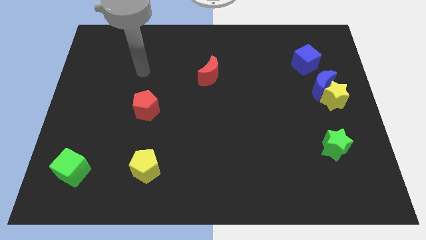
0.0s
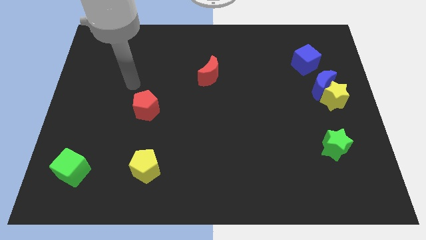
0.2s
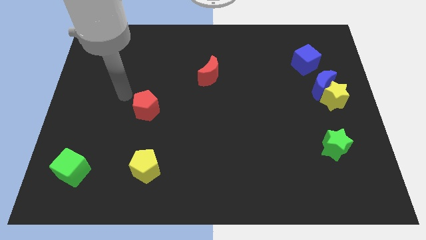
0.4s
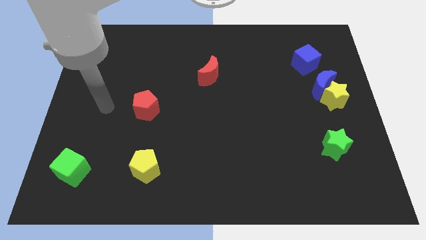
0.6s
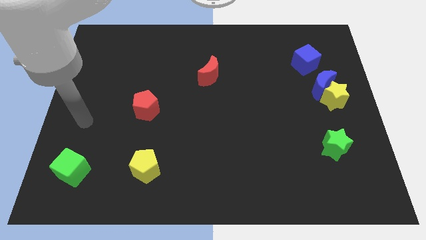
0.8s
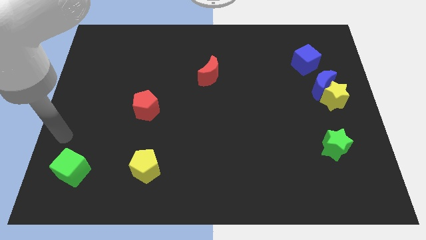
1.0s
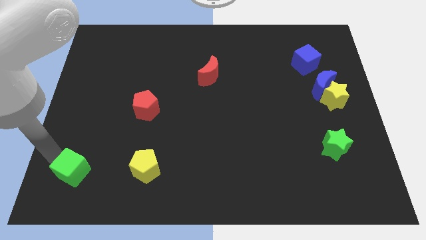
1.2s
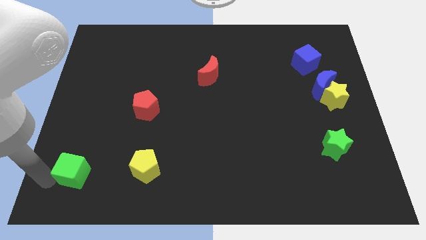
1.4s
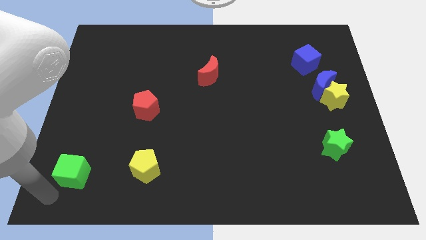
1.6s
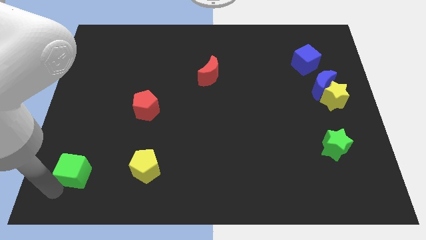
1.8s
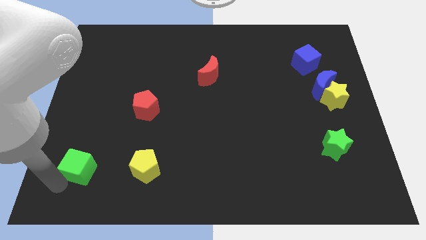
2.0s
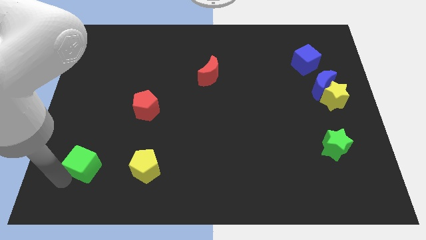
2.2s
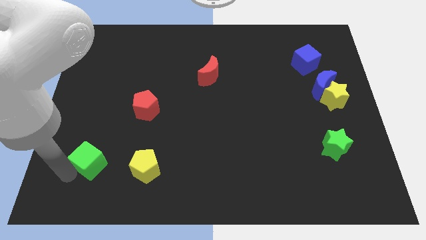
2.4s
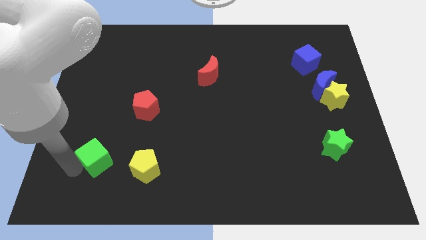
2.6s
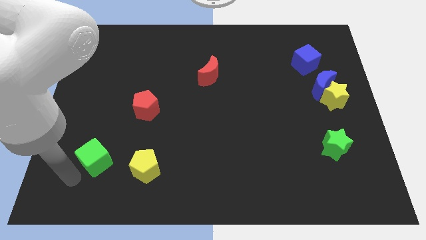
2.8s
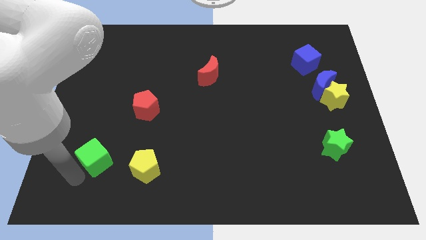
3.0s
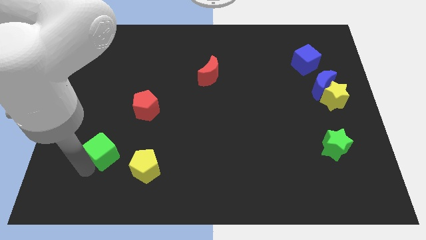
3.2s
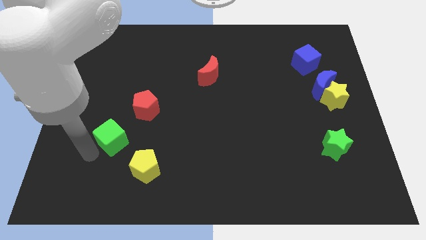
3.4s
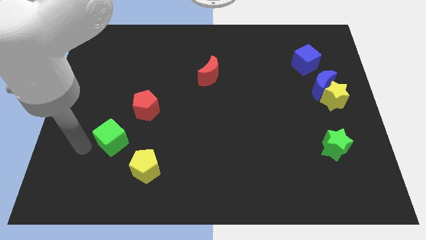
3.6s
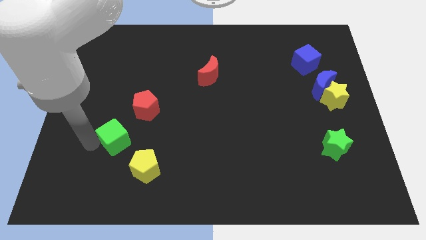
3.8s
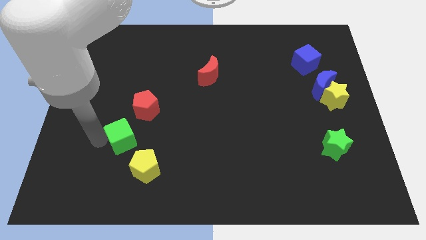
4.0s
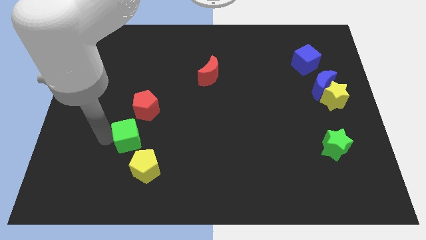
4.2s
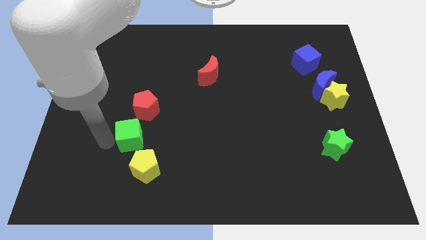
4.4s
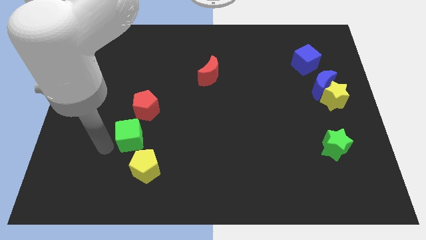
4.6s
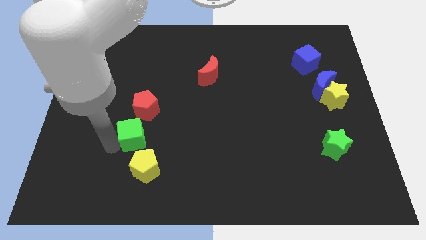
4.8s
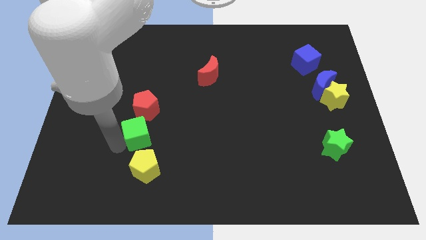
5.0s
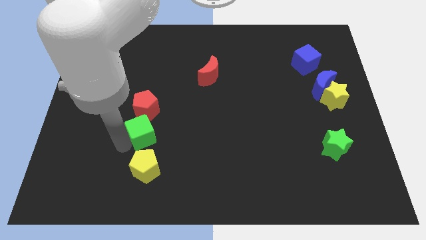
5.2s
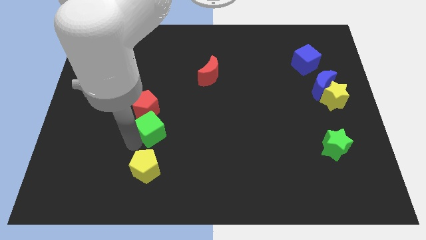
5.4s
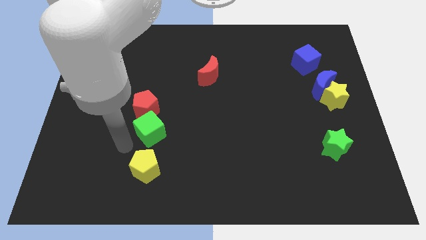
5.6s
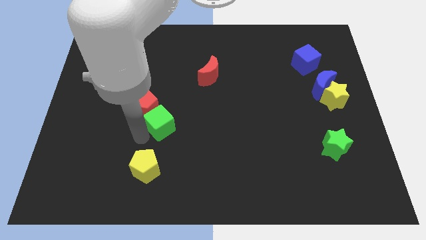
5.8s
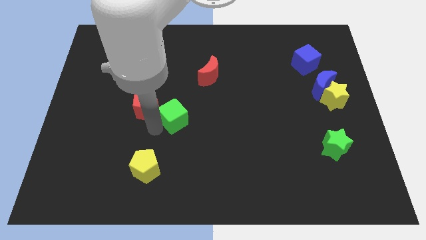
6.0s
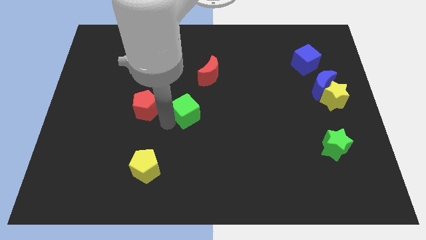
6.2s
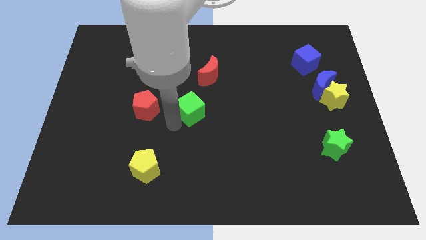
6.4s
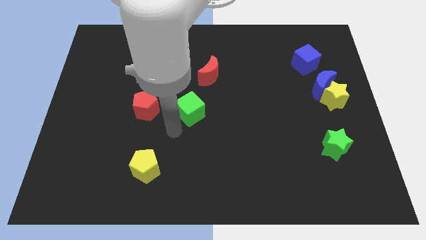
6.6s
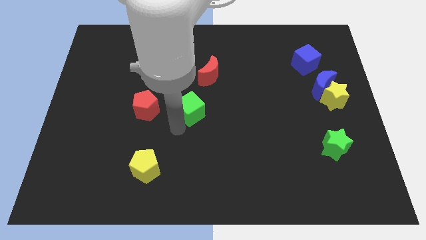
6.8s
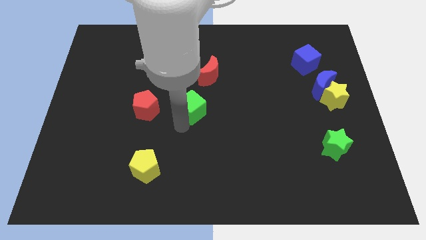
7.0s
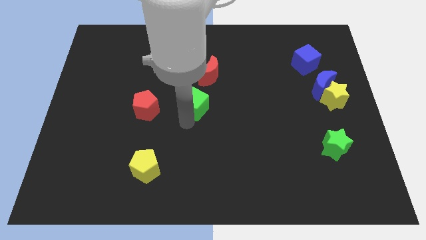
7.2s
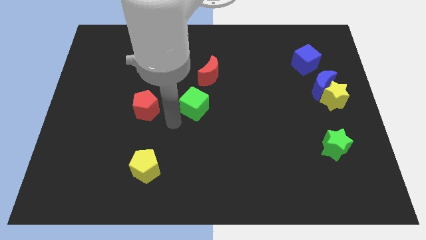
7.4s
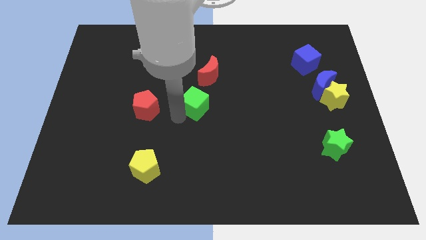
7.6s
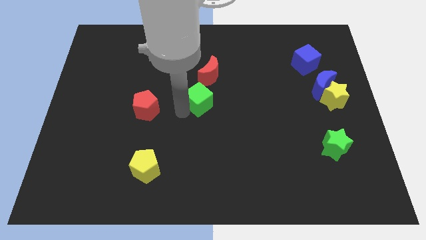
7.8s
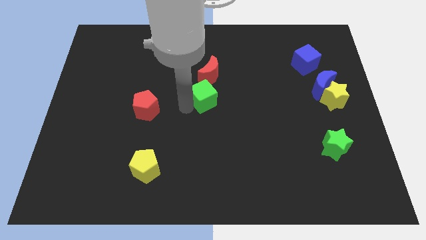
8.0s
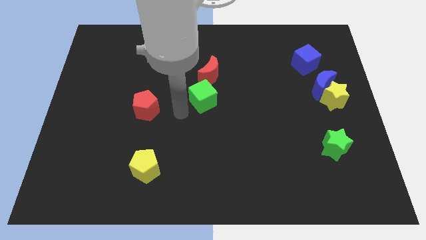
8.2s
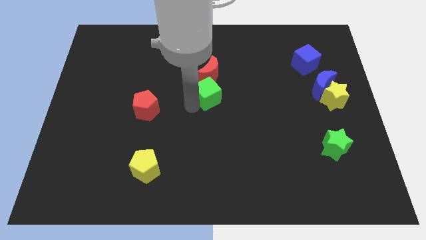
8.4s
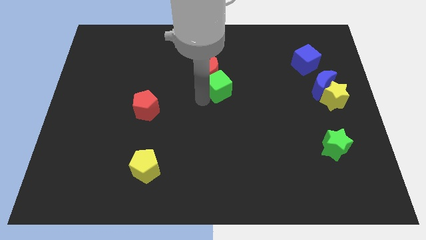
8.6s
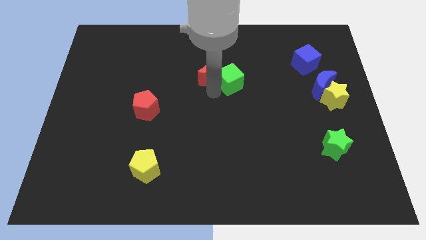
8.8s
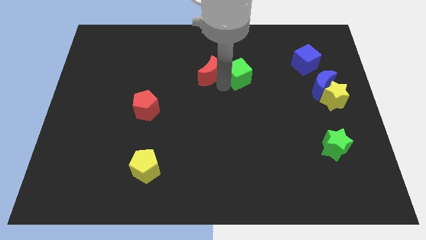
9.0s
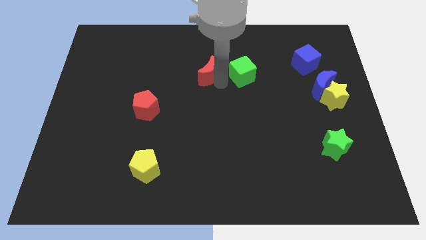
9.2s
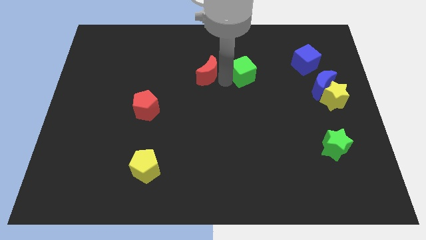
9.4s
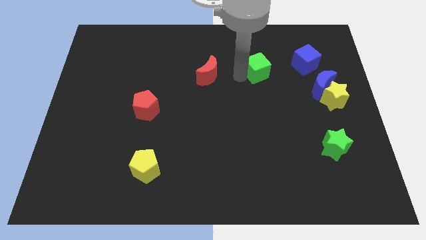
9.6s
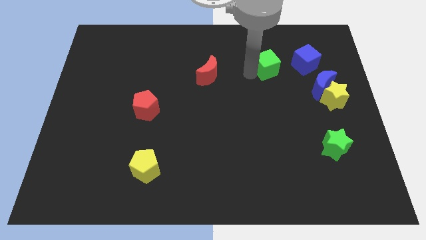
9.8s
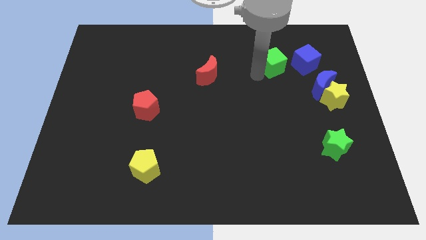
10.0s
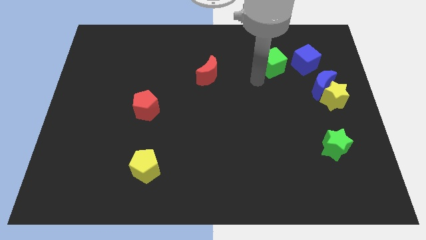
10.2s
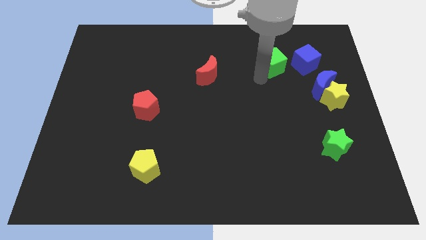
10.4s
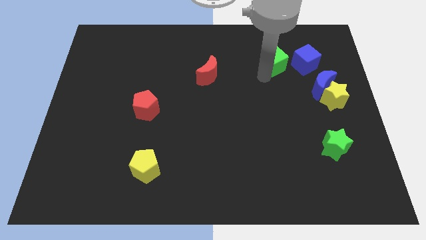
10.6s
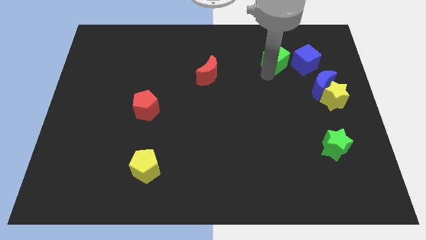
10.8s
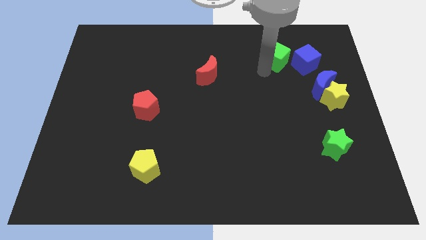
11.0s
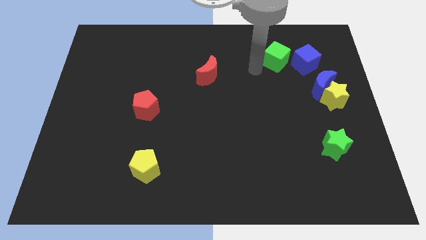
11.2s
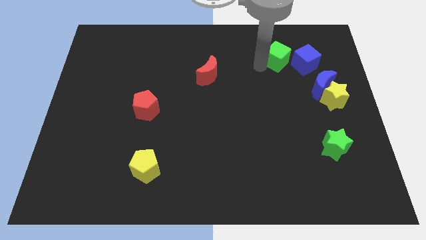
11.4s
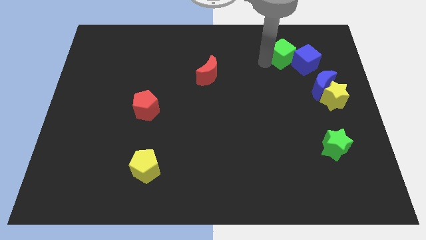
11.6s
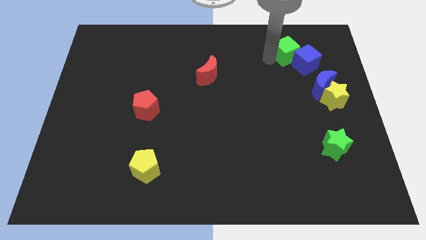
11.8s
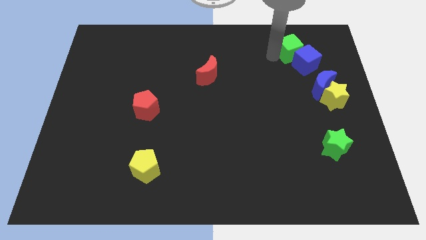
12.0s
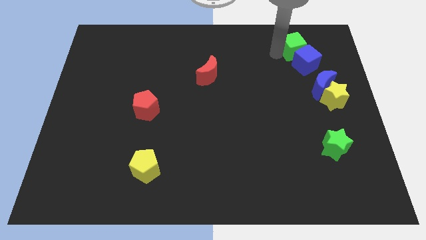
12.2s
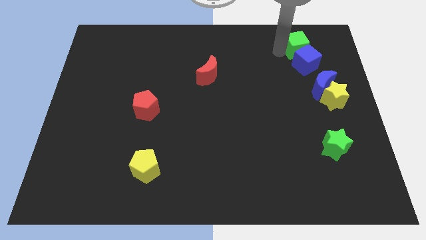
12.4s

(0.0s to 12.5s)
push the green cube above the blue moon
